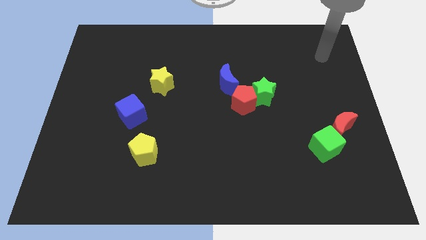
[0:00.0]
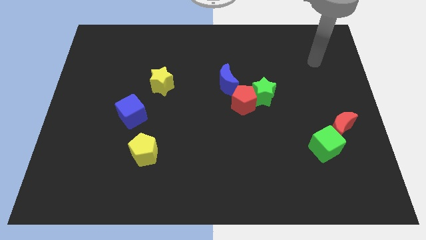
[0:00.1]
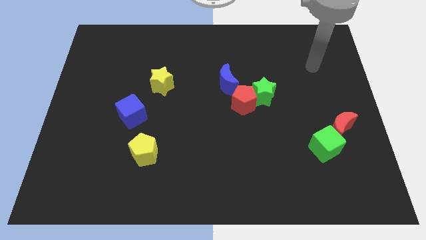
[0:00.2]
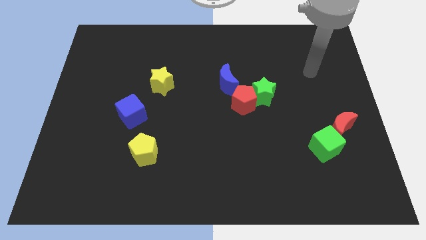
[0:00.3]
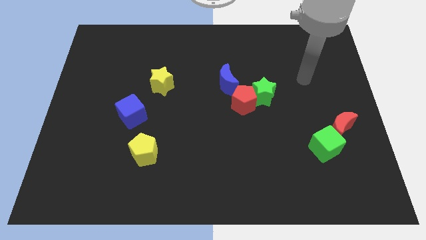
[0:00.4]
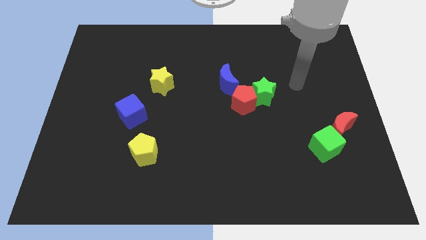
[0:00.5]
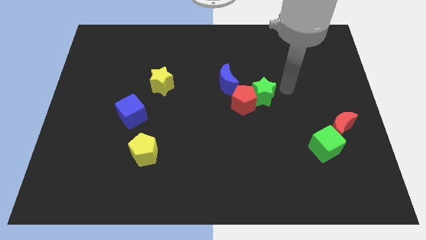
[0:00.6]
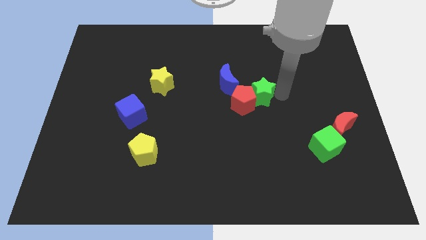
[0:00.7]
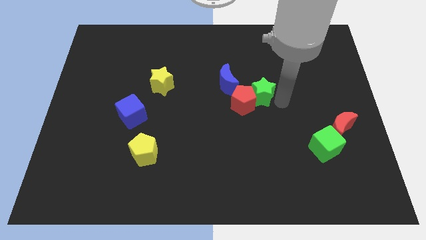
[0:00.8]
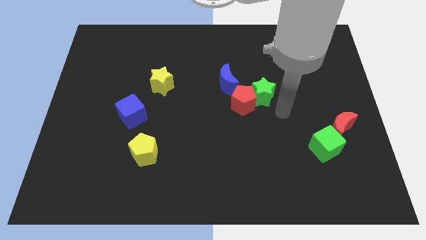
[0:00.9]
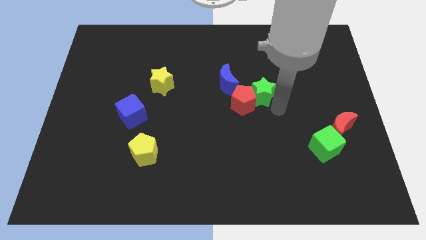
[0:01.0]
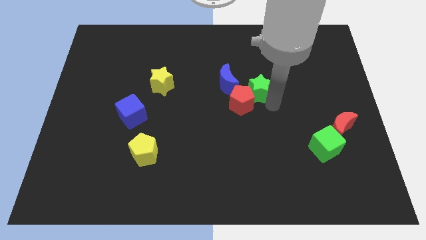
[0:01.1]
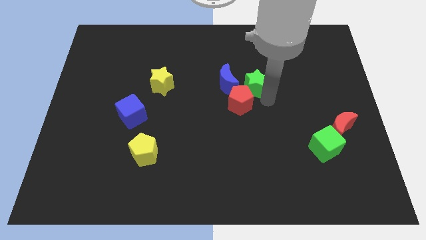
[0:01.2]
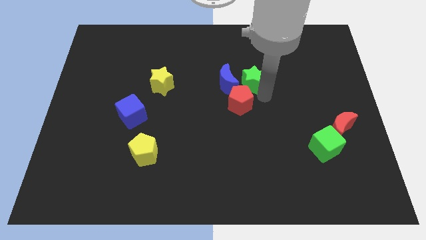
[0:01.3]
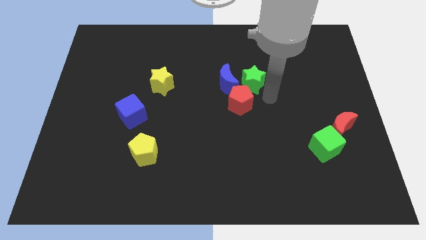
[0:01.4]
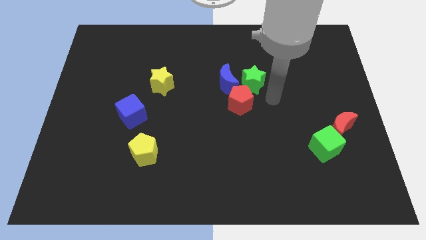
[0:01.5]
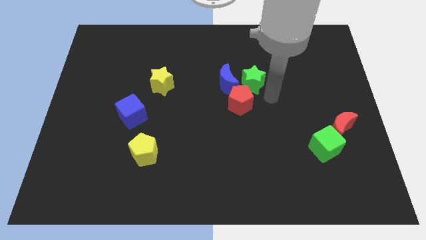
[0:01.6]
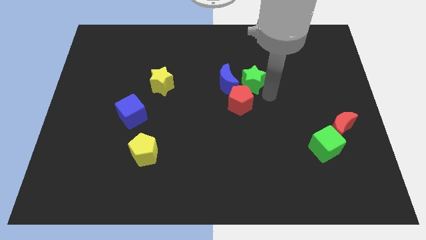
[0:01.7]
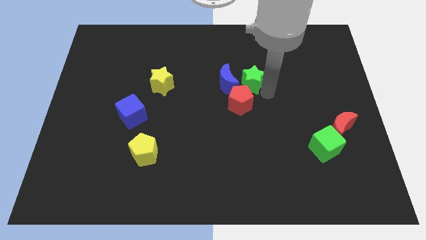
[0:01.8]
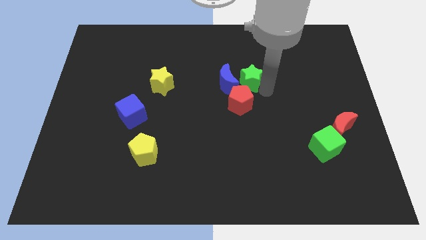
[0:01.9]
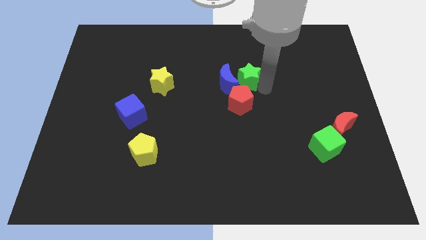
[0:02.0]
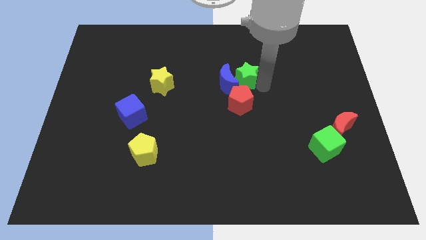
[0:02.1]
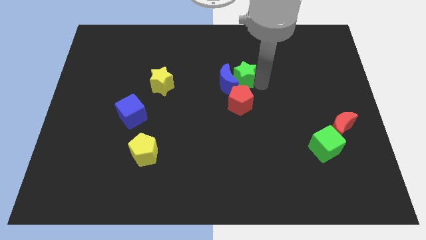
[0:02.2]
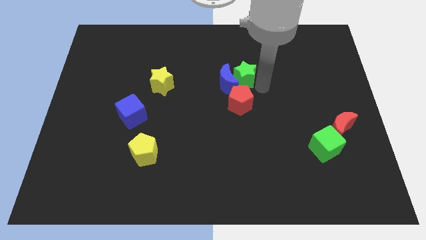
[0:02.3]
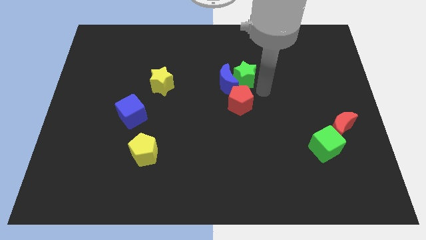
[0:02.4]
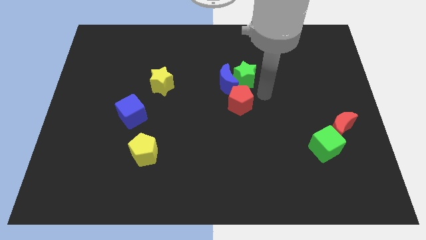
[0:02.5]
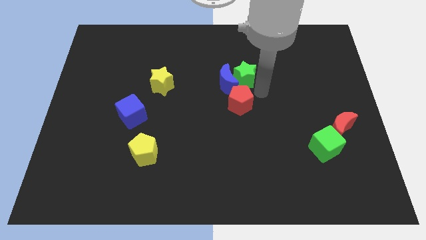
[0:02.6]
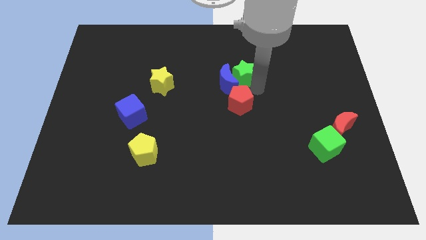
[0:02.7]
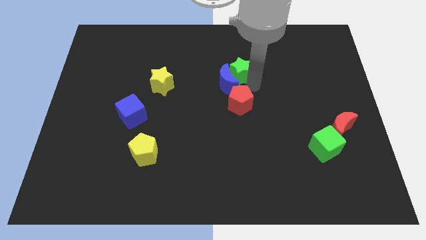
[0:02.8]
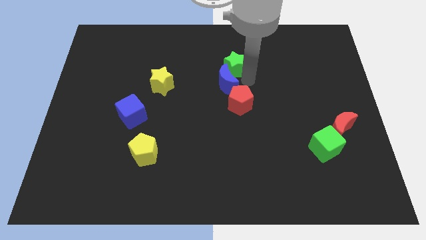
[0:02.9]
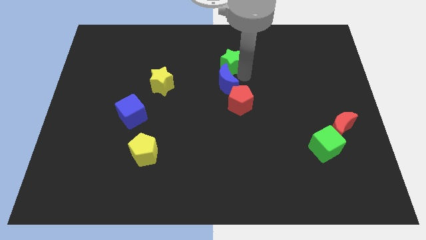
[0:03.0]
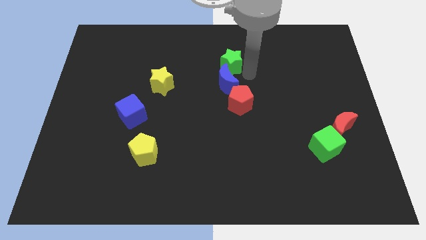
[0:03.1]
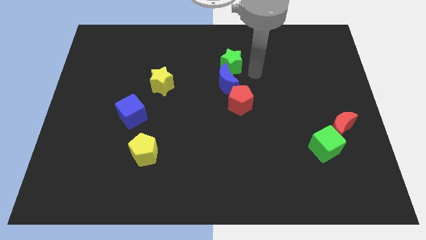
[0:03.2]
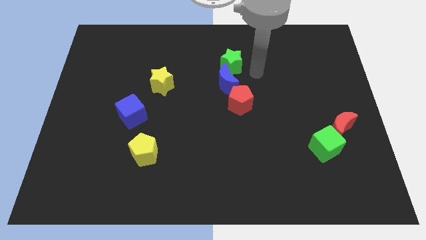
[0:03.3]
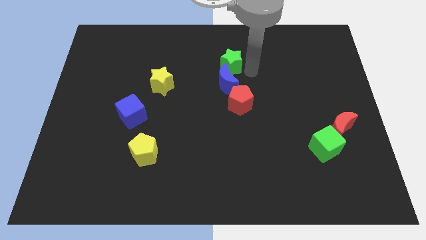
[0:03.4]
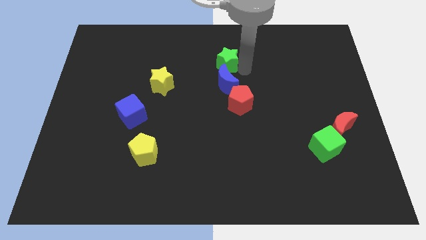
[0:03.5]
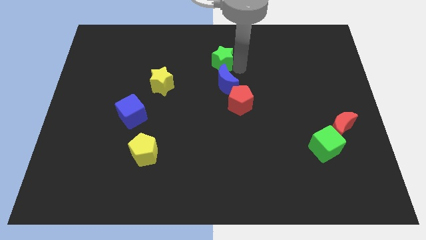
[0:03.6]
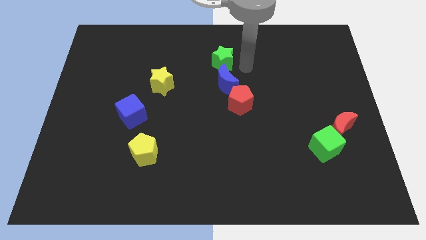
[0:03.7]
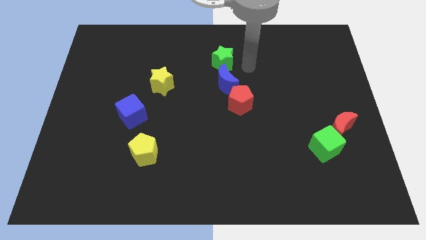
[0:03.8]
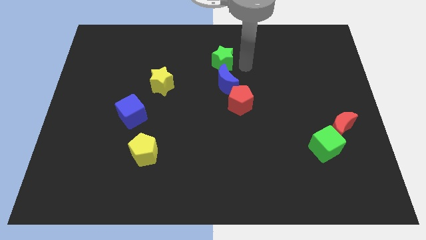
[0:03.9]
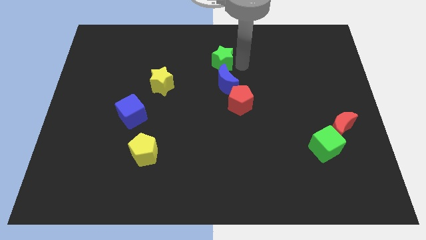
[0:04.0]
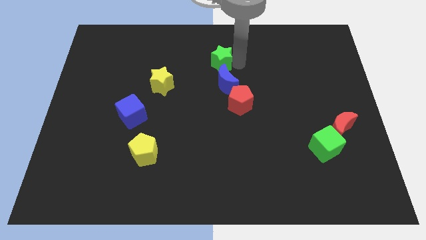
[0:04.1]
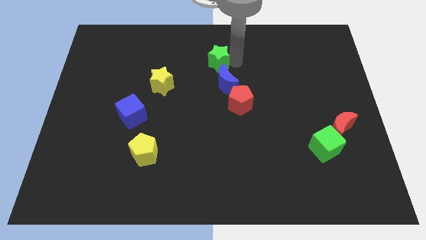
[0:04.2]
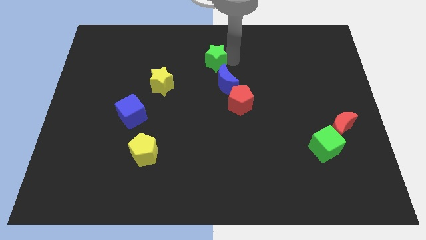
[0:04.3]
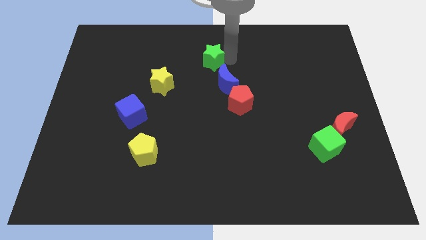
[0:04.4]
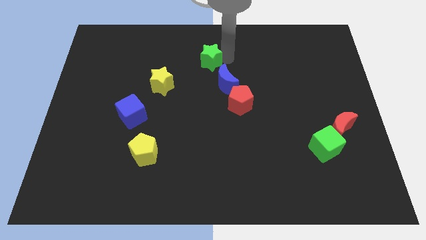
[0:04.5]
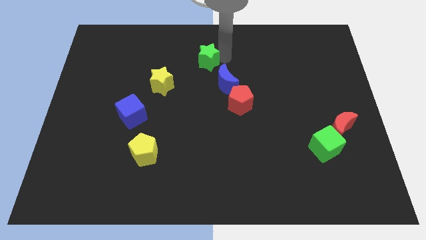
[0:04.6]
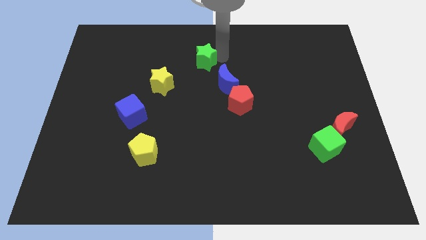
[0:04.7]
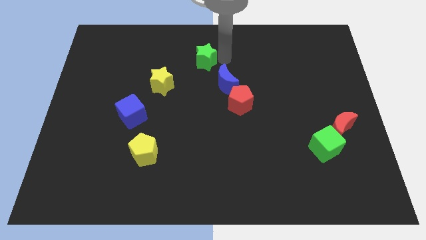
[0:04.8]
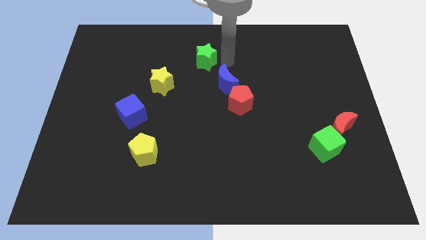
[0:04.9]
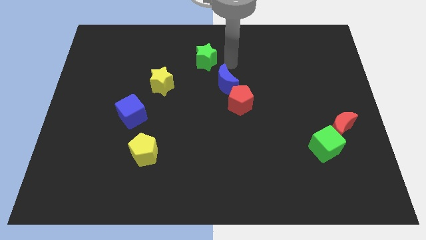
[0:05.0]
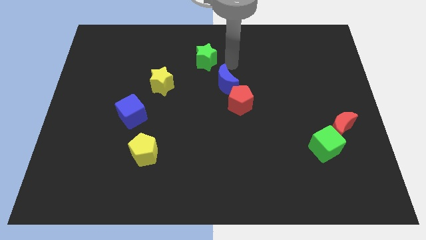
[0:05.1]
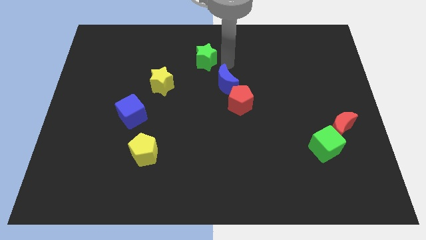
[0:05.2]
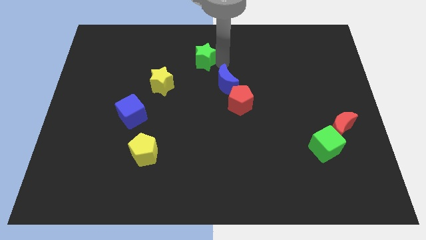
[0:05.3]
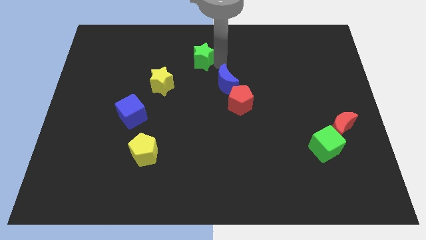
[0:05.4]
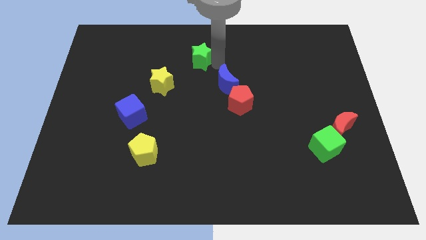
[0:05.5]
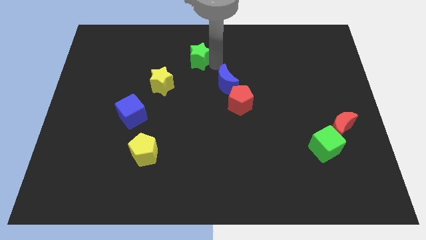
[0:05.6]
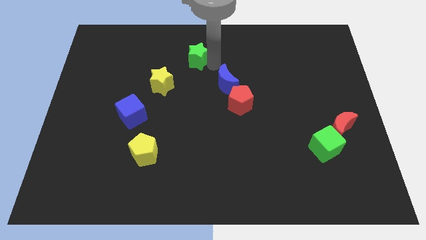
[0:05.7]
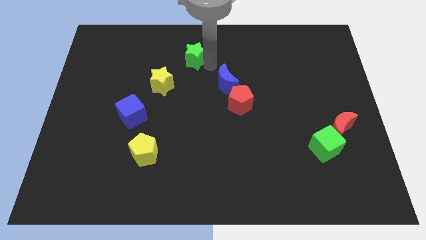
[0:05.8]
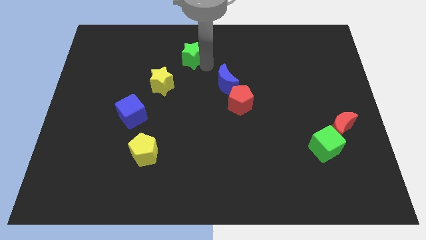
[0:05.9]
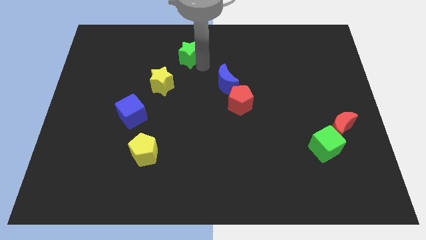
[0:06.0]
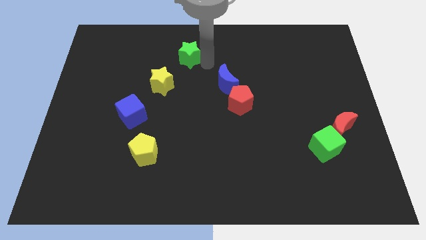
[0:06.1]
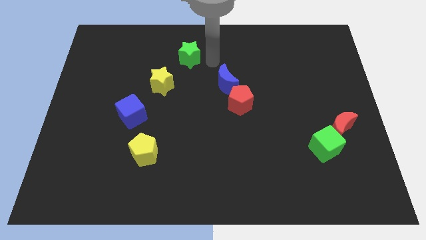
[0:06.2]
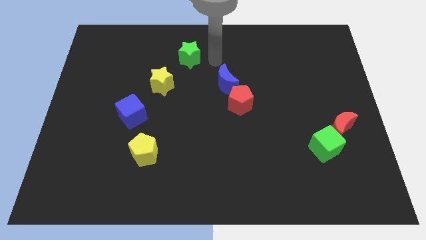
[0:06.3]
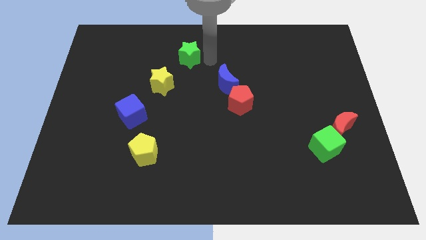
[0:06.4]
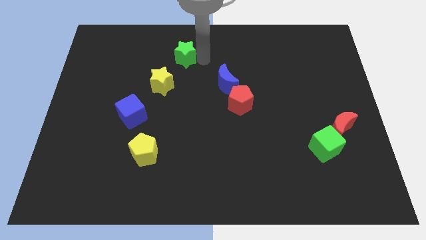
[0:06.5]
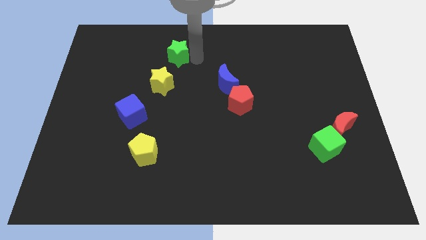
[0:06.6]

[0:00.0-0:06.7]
put the green star to the top side of the yellow star

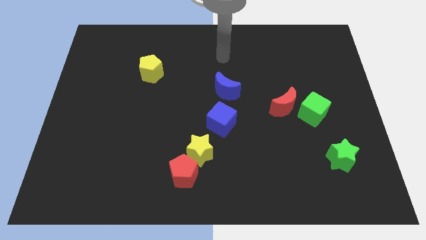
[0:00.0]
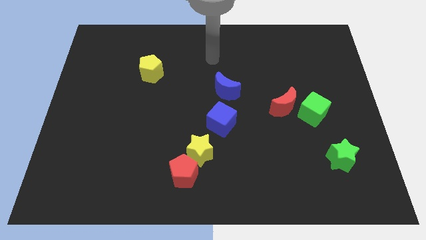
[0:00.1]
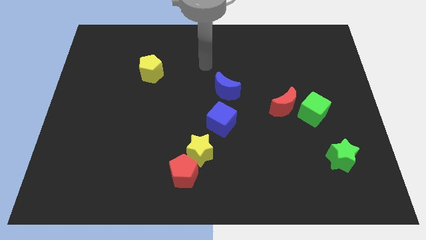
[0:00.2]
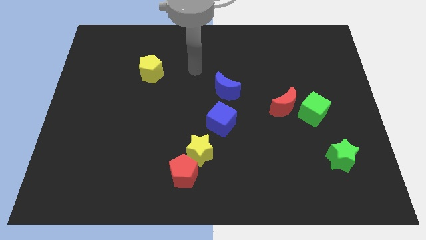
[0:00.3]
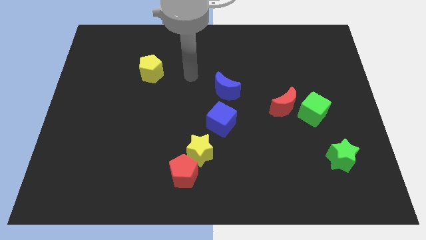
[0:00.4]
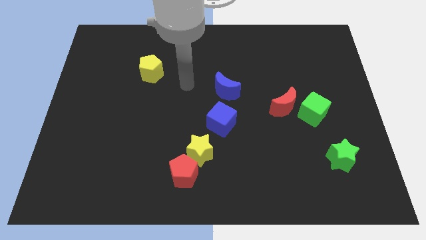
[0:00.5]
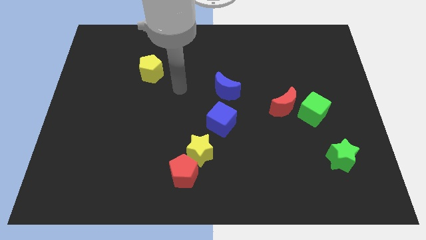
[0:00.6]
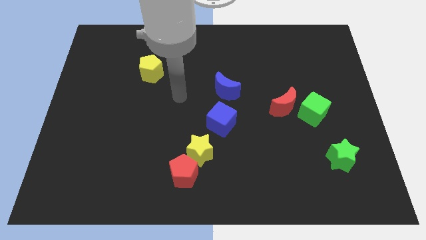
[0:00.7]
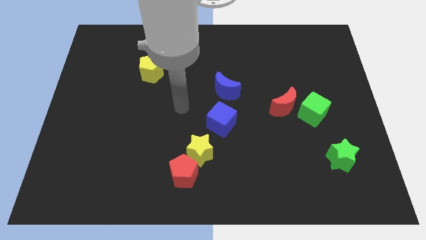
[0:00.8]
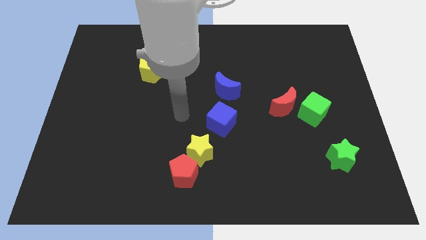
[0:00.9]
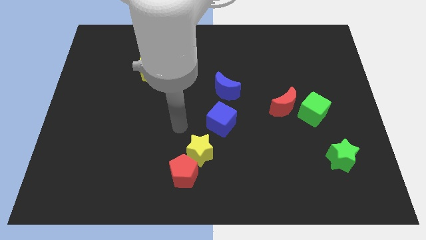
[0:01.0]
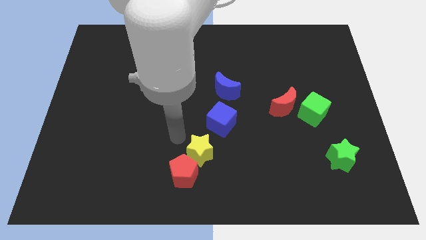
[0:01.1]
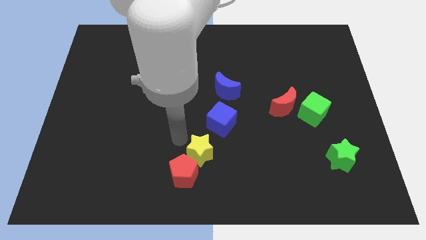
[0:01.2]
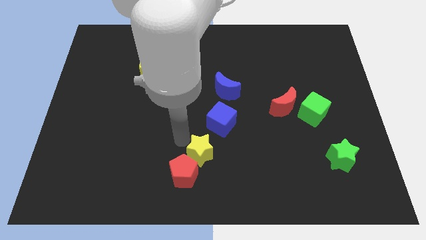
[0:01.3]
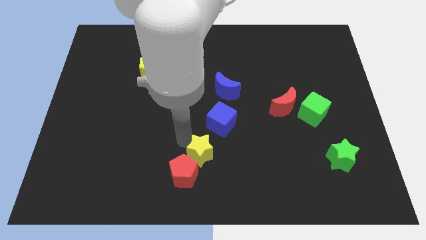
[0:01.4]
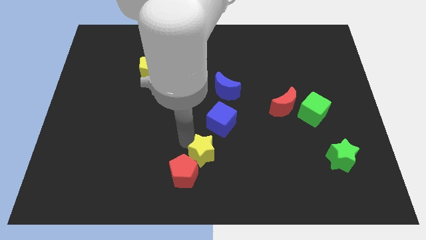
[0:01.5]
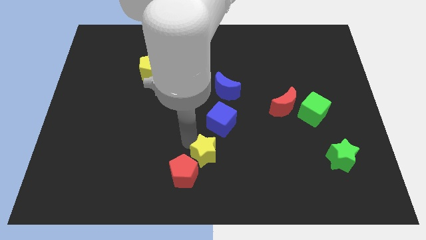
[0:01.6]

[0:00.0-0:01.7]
push the yellow star just right of the red pentagon
